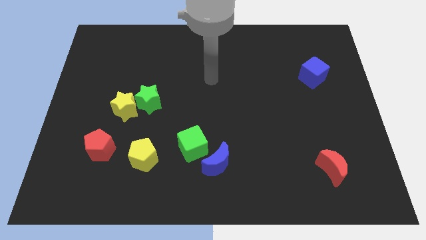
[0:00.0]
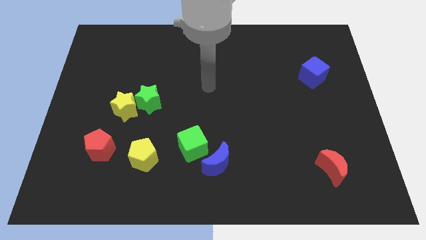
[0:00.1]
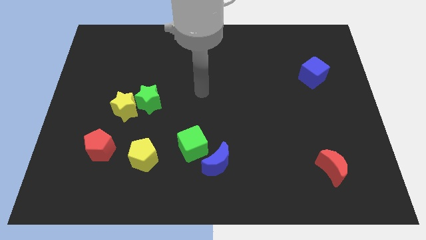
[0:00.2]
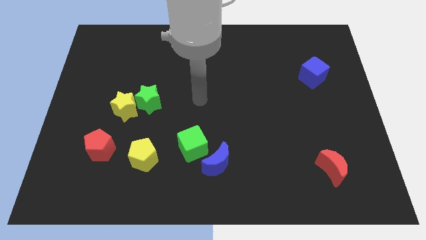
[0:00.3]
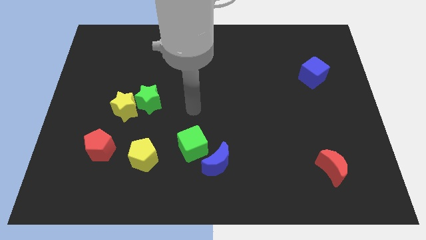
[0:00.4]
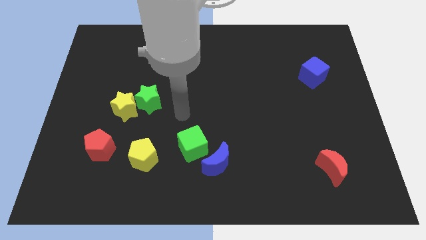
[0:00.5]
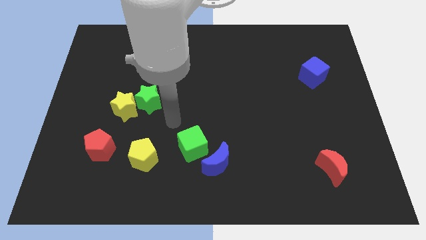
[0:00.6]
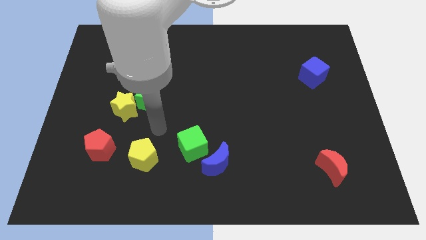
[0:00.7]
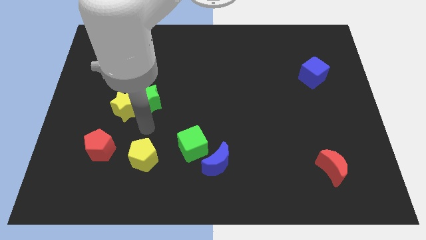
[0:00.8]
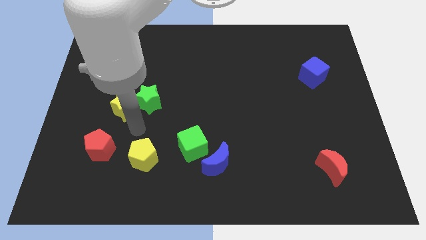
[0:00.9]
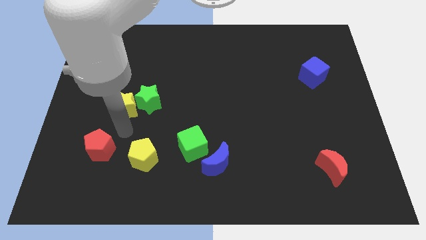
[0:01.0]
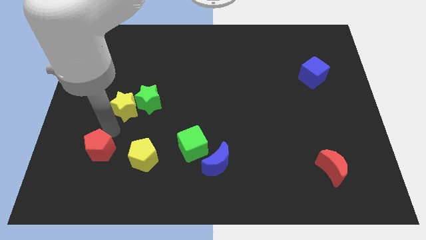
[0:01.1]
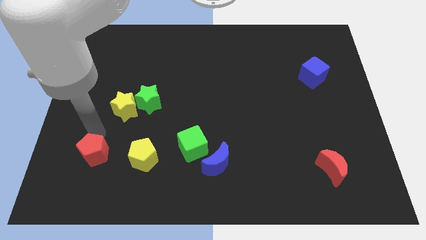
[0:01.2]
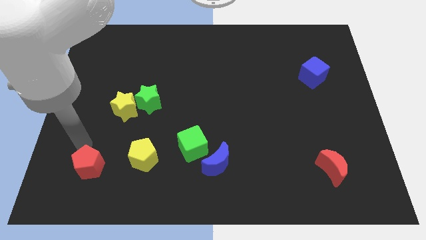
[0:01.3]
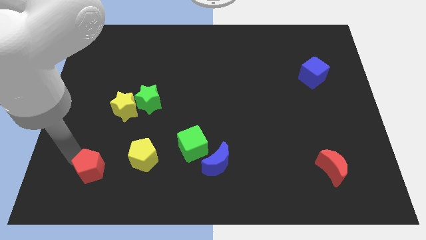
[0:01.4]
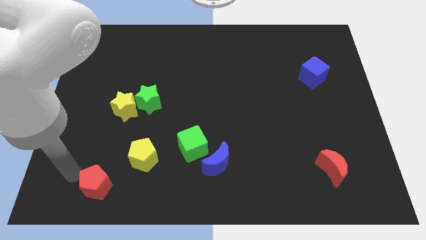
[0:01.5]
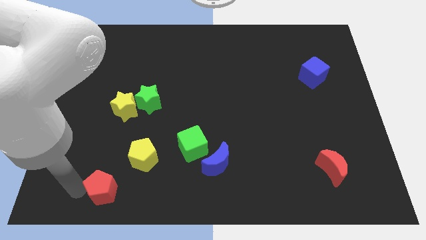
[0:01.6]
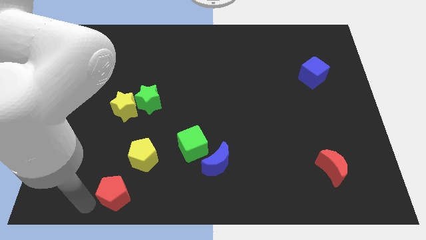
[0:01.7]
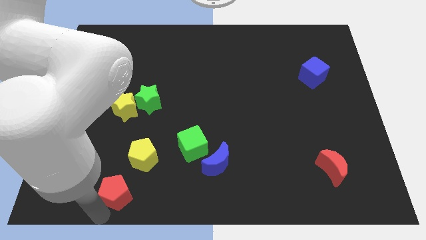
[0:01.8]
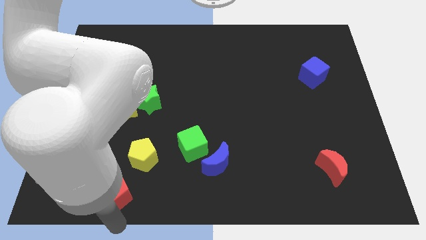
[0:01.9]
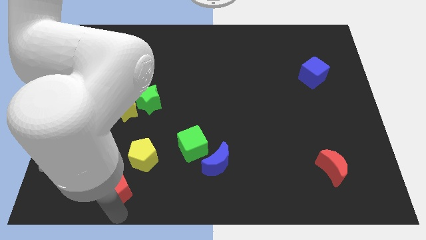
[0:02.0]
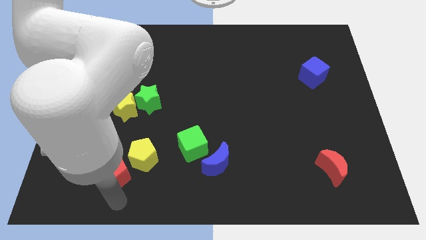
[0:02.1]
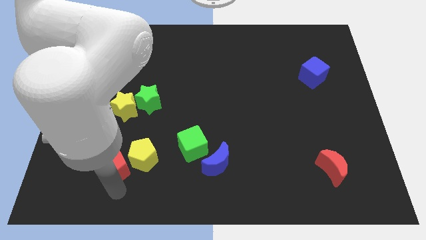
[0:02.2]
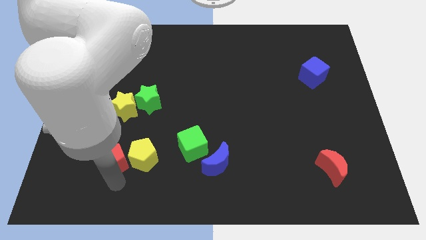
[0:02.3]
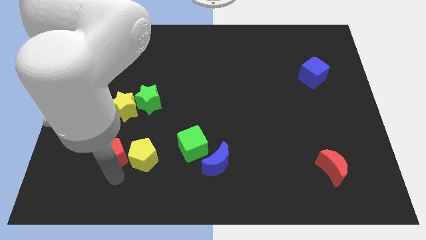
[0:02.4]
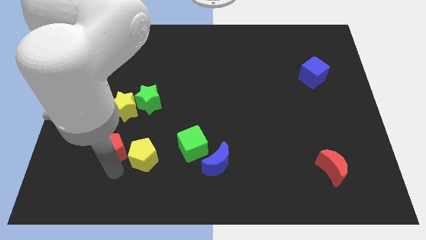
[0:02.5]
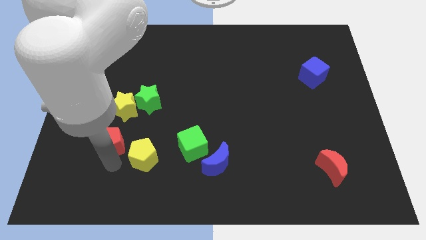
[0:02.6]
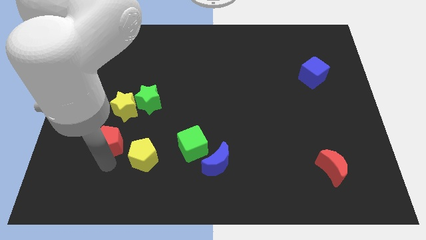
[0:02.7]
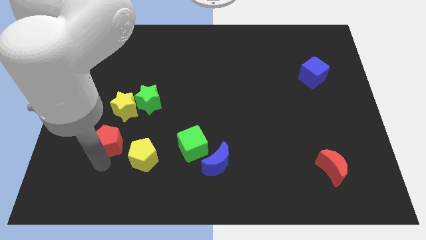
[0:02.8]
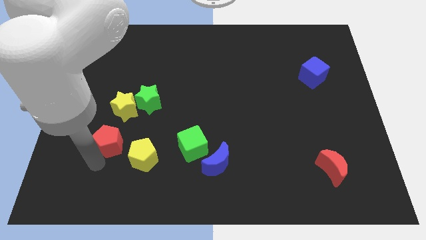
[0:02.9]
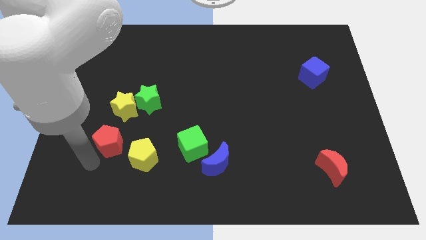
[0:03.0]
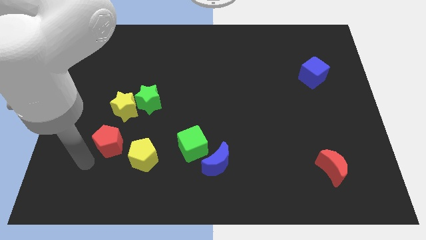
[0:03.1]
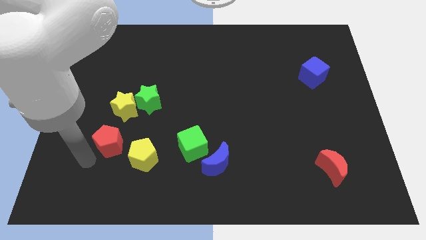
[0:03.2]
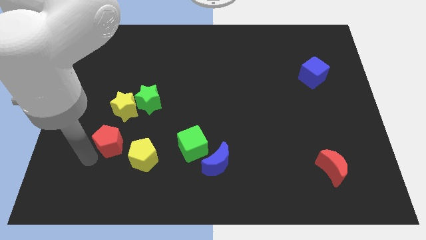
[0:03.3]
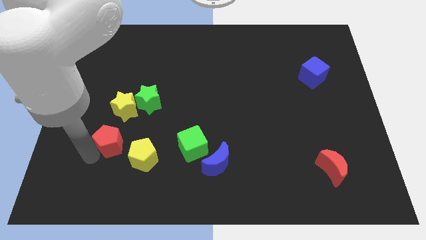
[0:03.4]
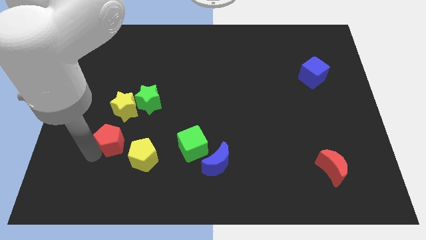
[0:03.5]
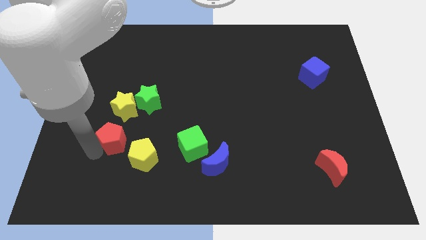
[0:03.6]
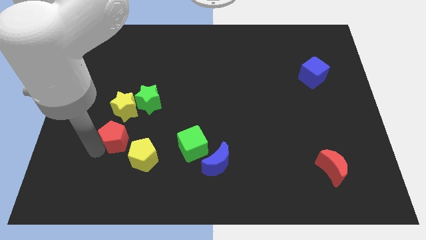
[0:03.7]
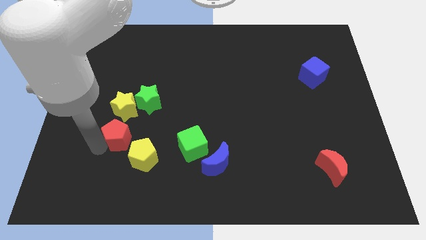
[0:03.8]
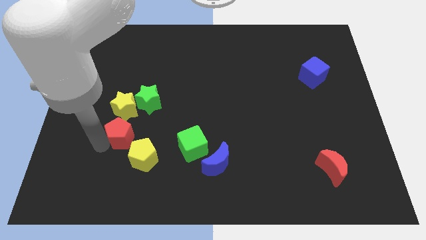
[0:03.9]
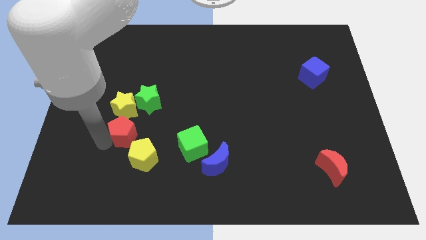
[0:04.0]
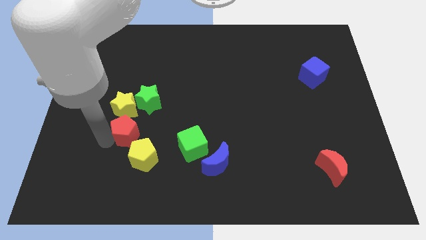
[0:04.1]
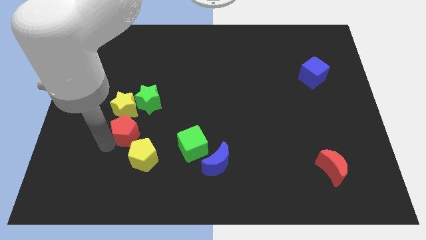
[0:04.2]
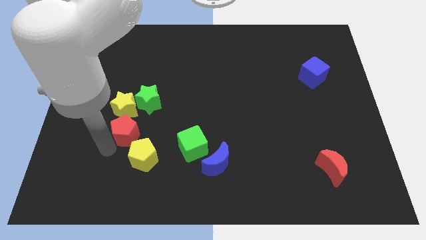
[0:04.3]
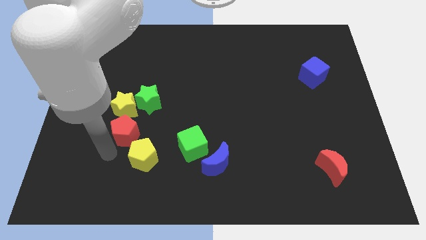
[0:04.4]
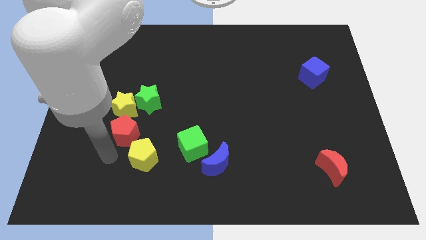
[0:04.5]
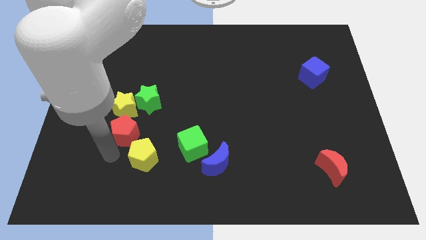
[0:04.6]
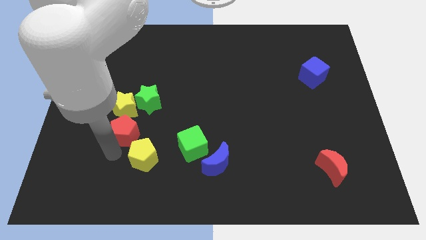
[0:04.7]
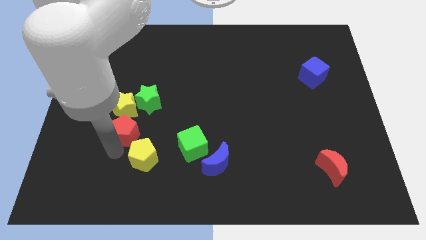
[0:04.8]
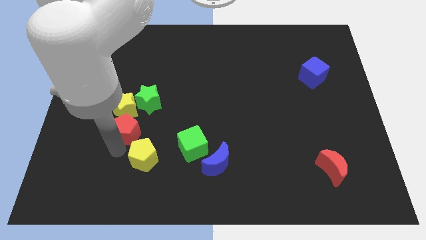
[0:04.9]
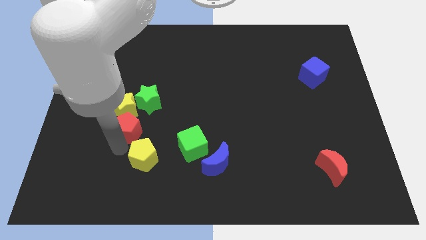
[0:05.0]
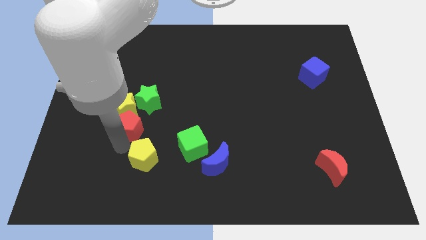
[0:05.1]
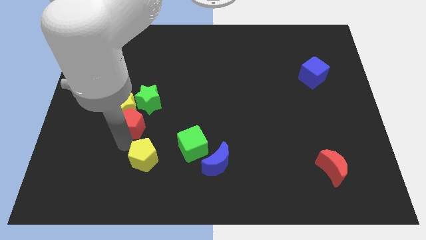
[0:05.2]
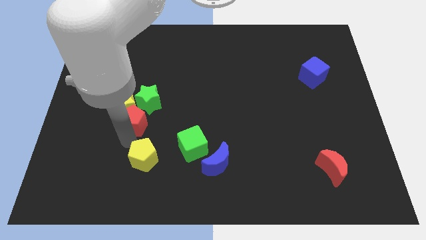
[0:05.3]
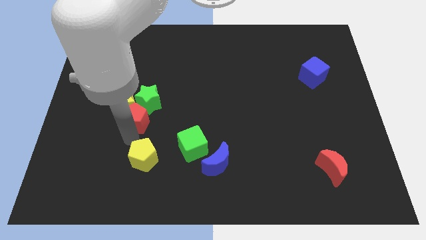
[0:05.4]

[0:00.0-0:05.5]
push the red pentagon close to the green star

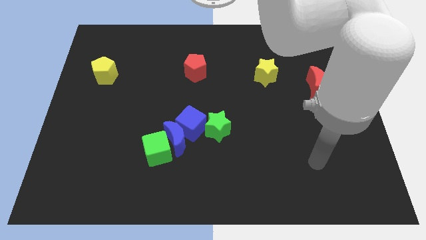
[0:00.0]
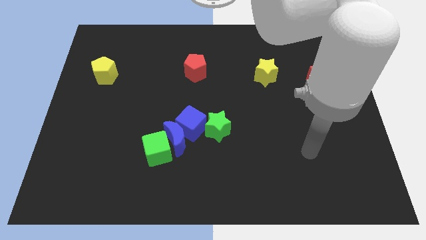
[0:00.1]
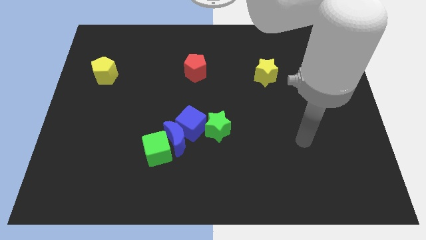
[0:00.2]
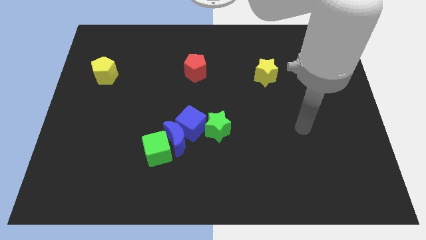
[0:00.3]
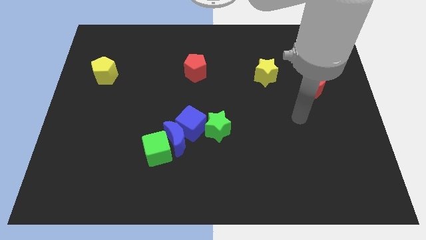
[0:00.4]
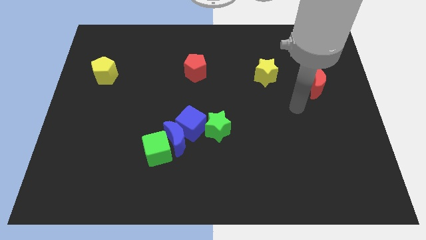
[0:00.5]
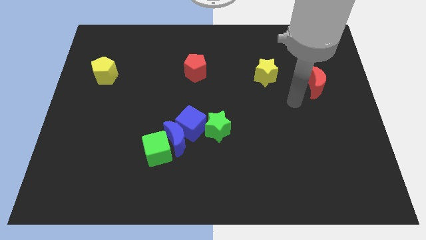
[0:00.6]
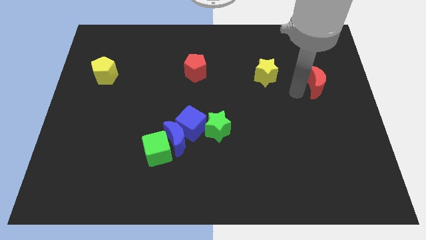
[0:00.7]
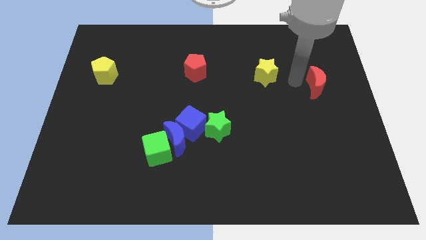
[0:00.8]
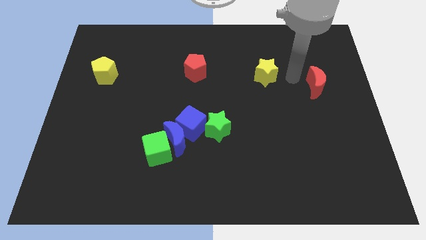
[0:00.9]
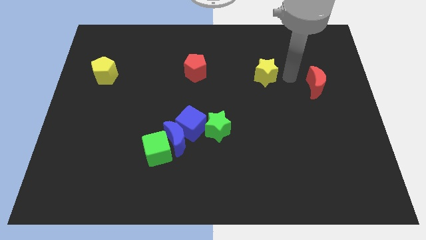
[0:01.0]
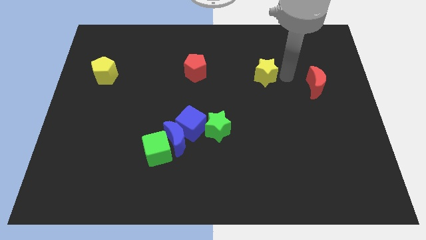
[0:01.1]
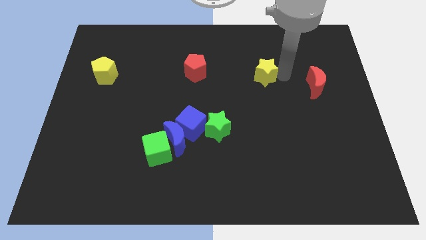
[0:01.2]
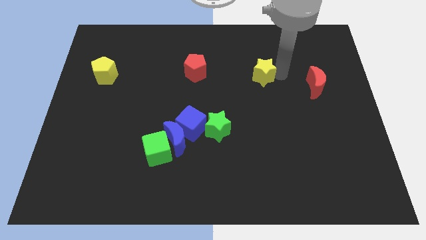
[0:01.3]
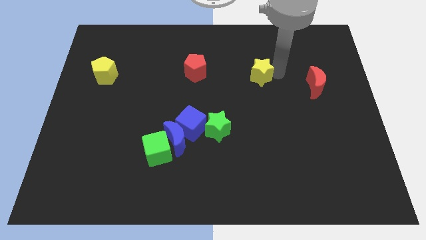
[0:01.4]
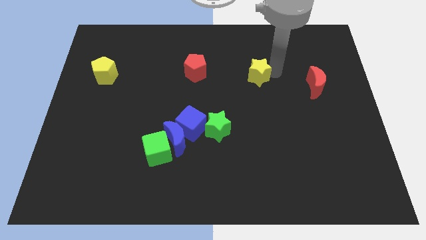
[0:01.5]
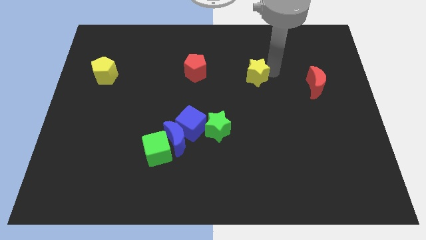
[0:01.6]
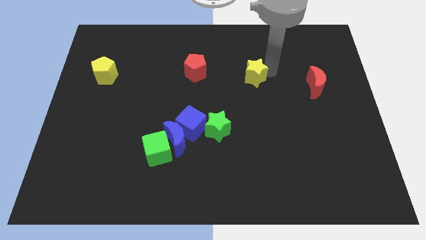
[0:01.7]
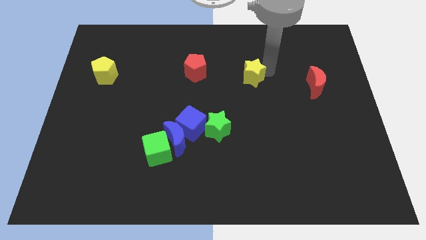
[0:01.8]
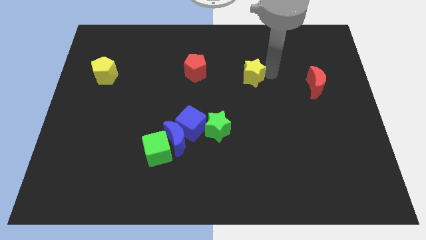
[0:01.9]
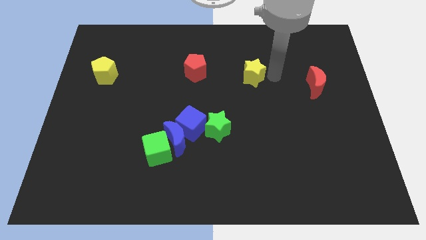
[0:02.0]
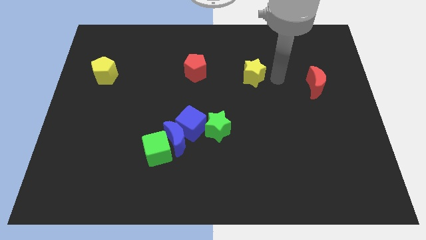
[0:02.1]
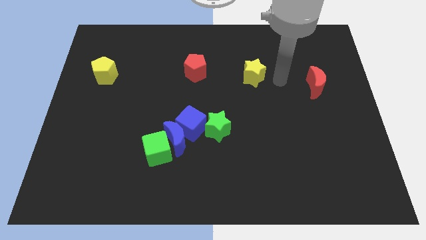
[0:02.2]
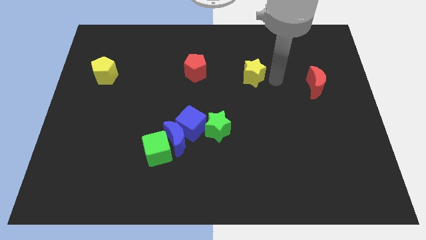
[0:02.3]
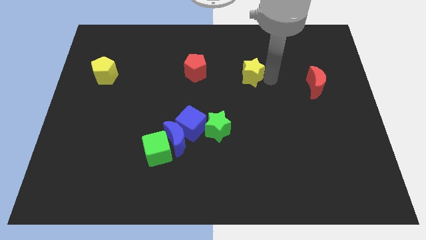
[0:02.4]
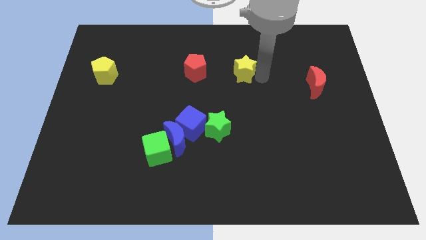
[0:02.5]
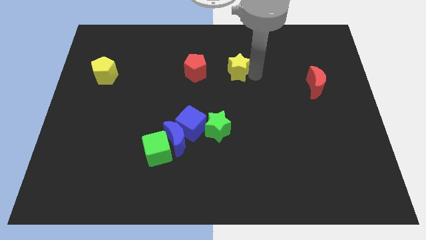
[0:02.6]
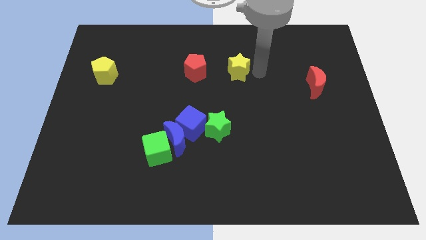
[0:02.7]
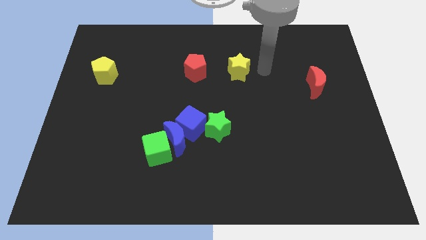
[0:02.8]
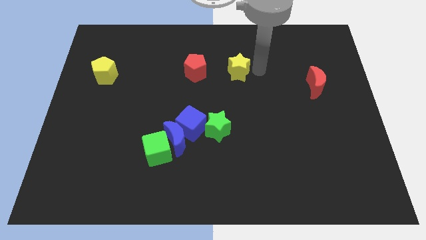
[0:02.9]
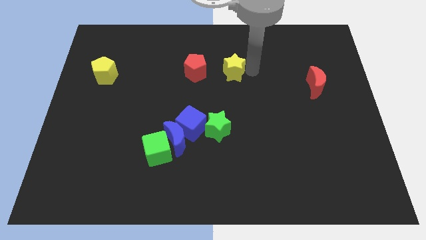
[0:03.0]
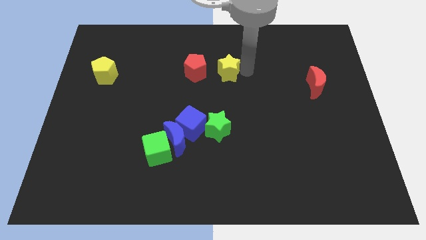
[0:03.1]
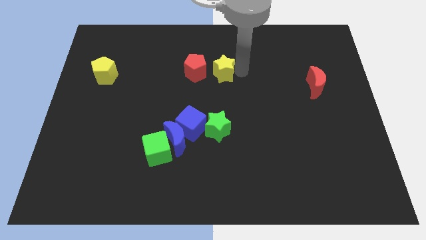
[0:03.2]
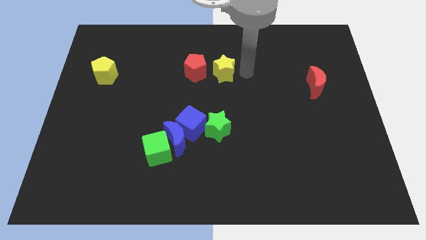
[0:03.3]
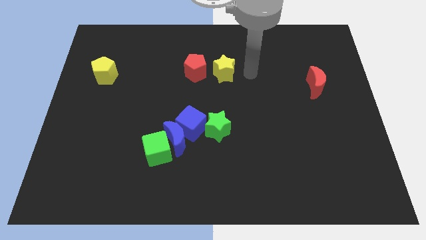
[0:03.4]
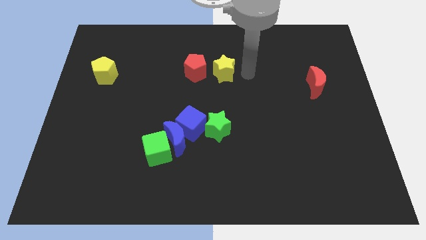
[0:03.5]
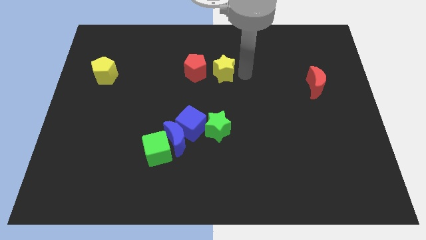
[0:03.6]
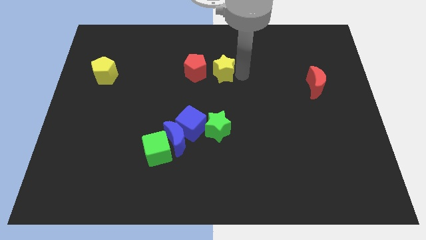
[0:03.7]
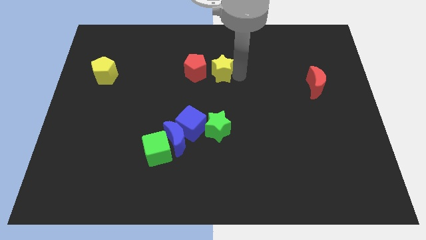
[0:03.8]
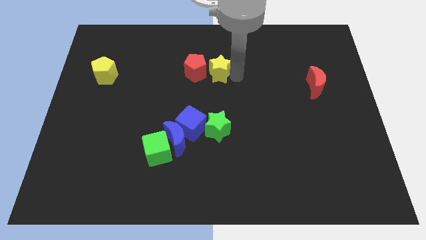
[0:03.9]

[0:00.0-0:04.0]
put the yellow star close to the red pentagon
